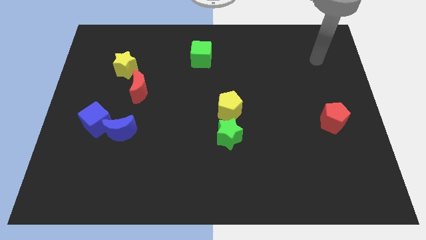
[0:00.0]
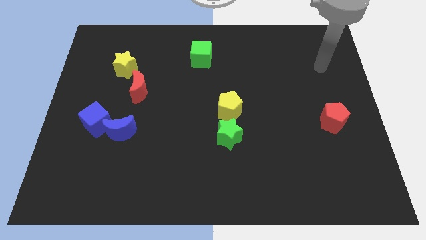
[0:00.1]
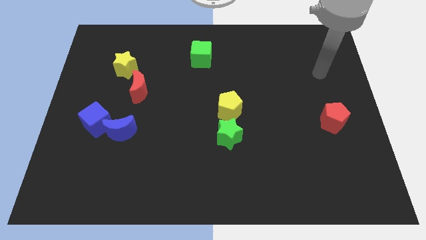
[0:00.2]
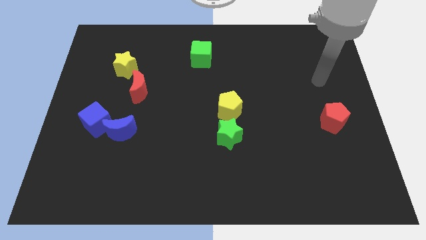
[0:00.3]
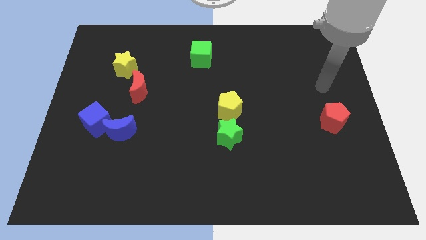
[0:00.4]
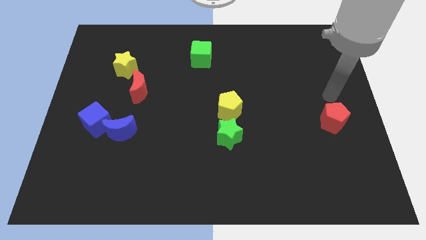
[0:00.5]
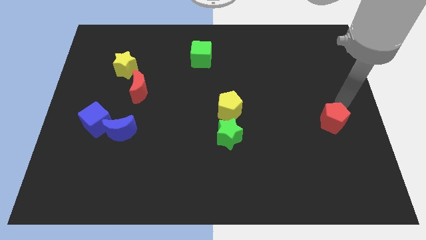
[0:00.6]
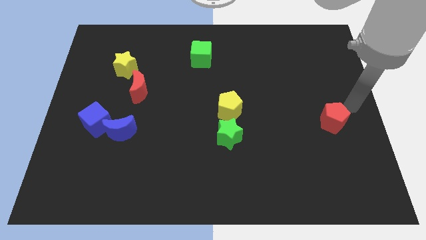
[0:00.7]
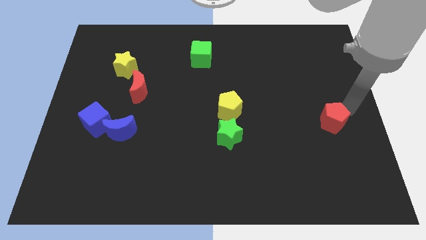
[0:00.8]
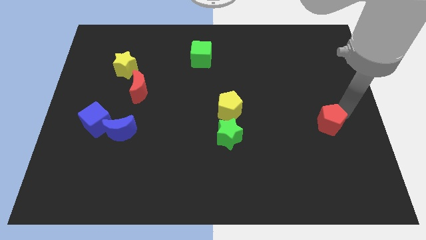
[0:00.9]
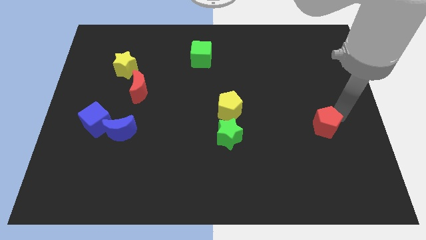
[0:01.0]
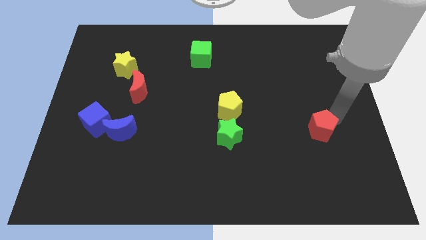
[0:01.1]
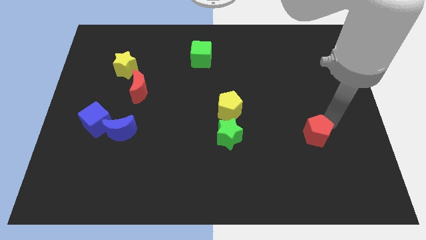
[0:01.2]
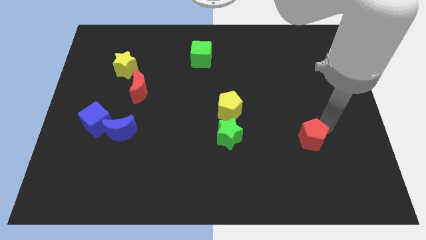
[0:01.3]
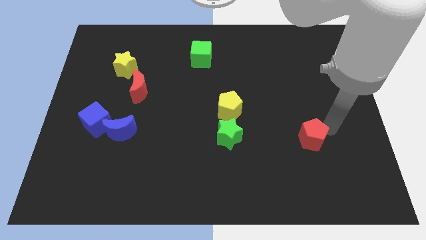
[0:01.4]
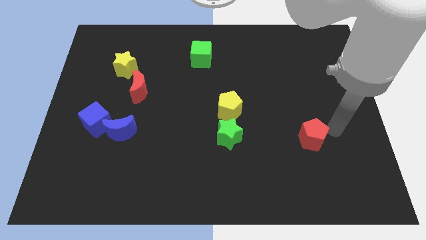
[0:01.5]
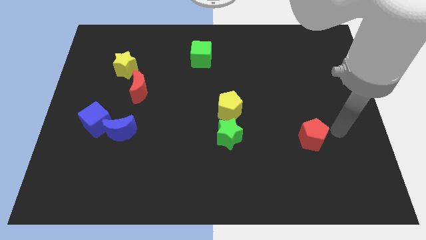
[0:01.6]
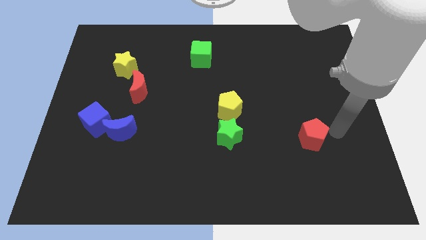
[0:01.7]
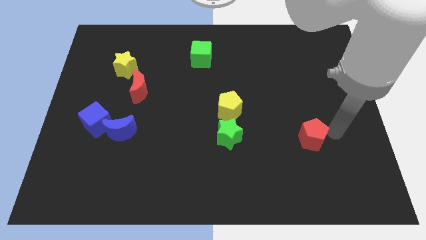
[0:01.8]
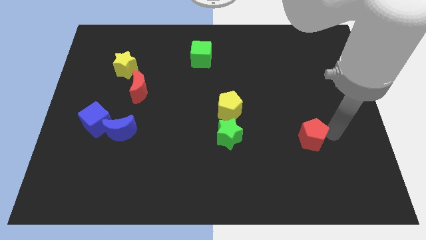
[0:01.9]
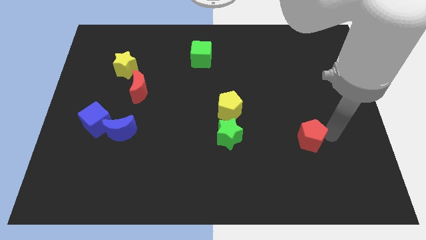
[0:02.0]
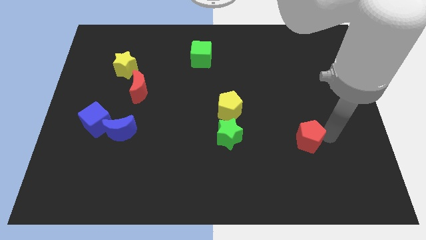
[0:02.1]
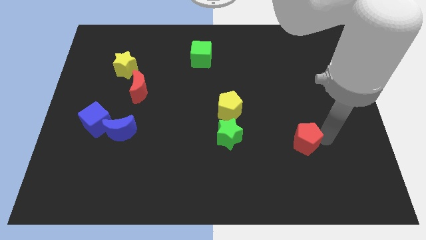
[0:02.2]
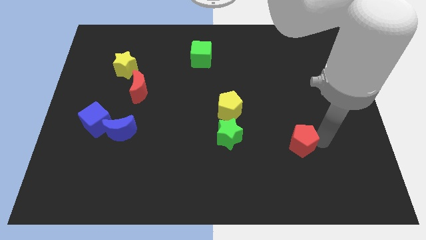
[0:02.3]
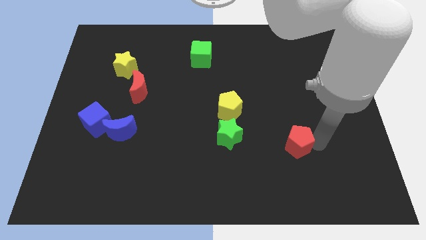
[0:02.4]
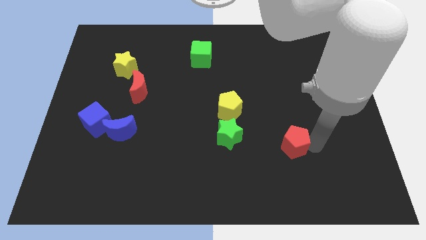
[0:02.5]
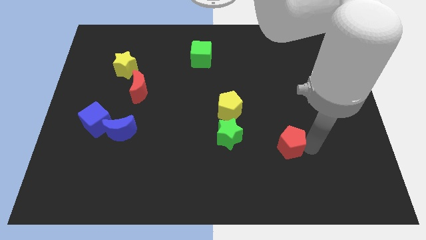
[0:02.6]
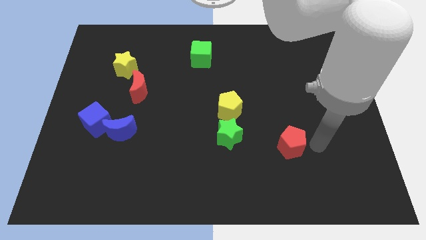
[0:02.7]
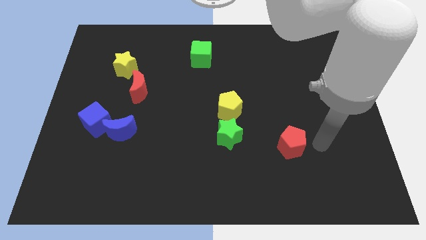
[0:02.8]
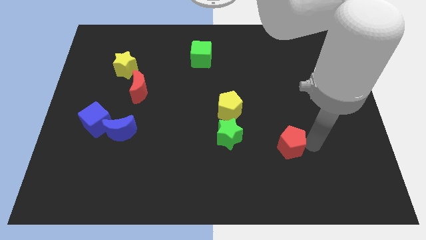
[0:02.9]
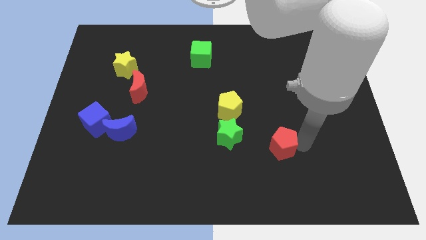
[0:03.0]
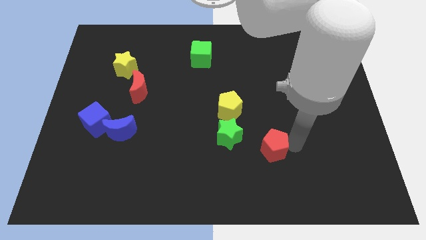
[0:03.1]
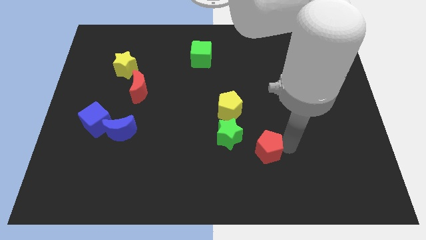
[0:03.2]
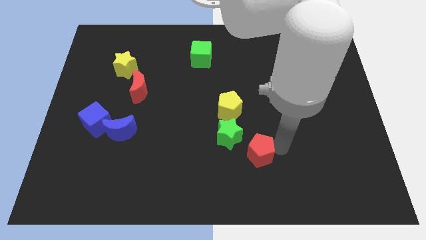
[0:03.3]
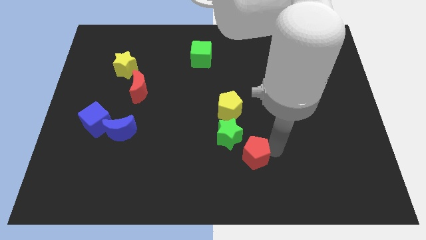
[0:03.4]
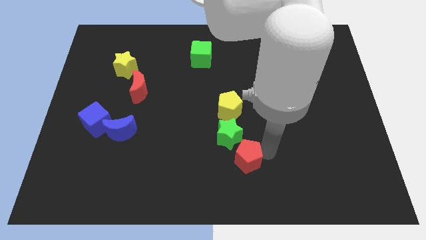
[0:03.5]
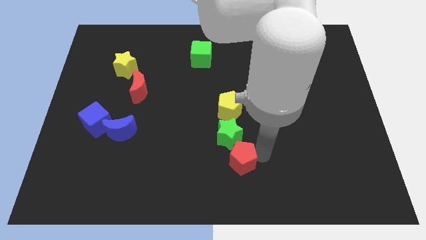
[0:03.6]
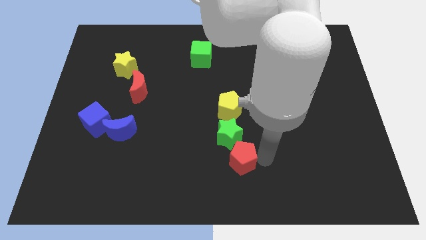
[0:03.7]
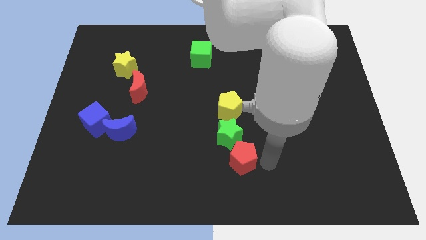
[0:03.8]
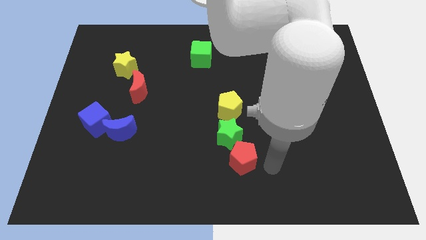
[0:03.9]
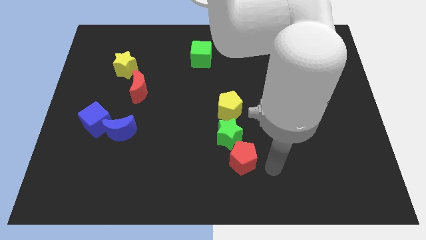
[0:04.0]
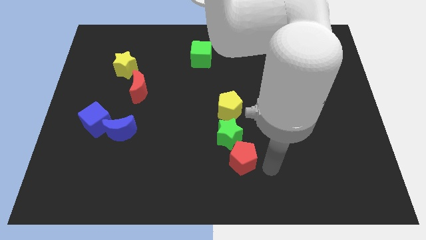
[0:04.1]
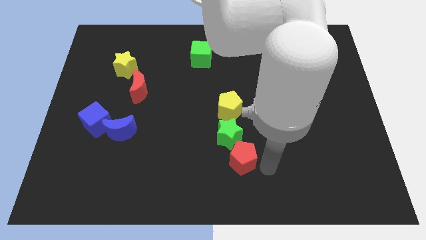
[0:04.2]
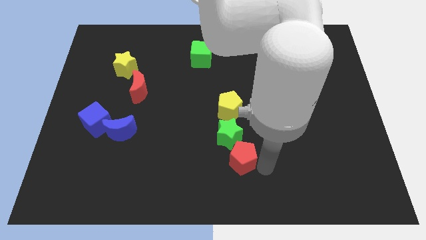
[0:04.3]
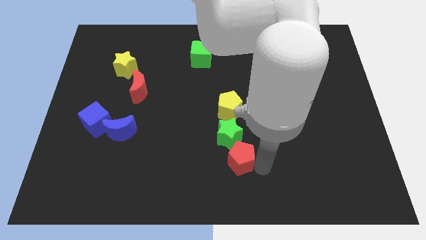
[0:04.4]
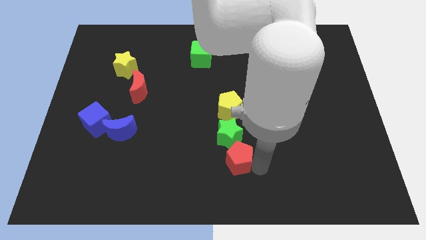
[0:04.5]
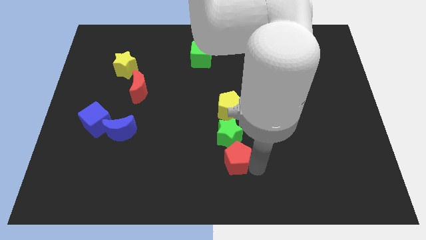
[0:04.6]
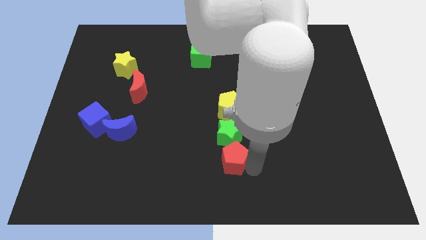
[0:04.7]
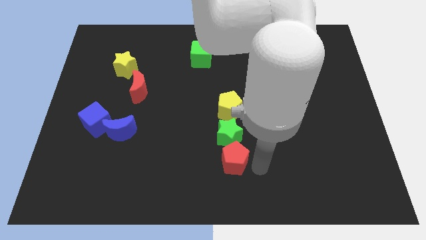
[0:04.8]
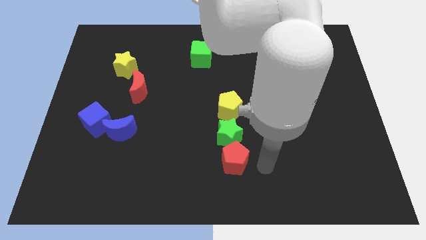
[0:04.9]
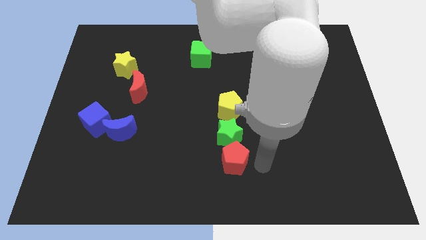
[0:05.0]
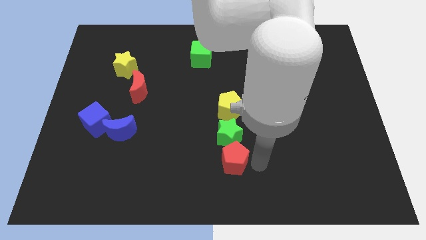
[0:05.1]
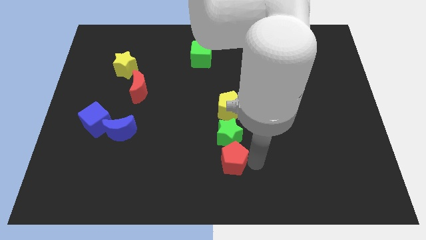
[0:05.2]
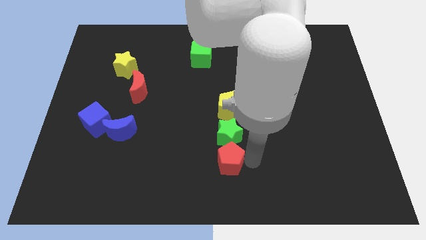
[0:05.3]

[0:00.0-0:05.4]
put the red pentagon to the bottom left of the green star

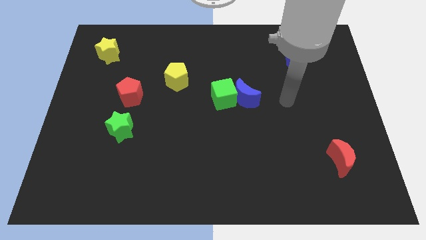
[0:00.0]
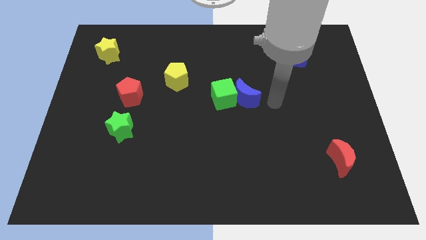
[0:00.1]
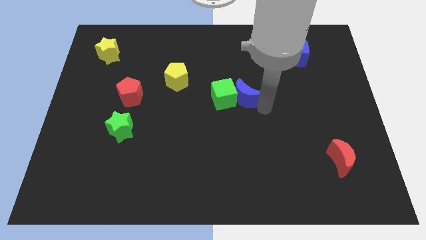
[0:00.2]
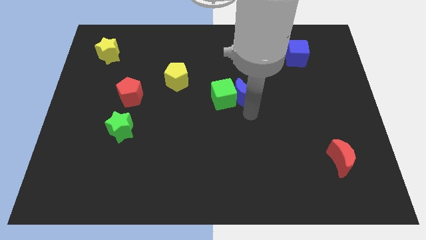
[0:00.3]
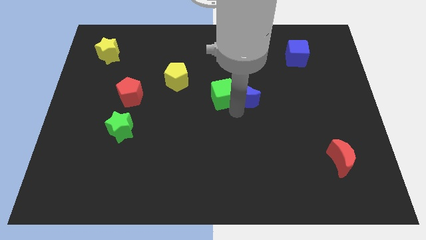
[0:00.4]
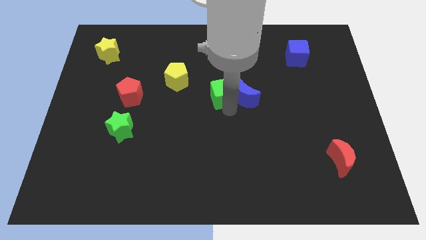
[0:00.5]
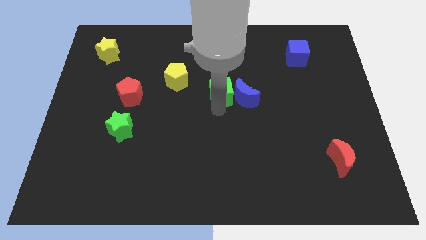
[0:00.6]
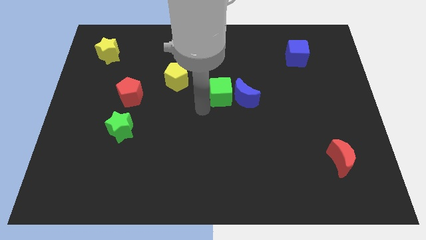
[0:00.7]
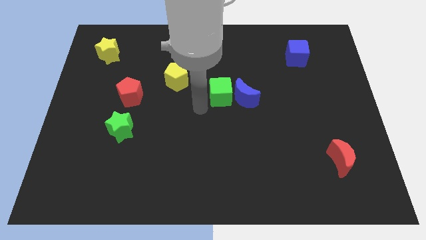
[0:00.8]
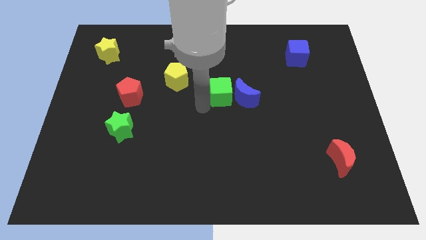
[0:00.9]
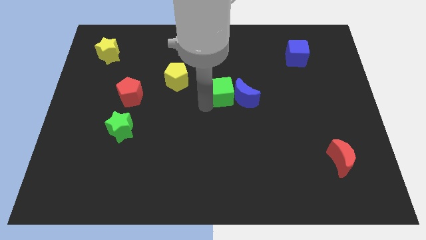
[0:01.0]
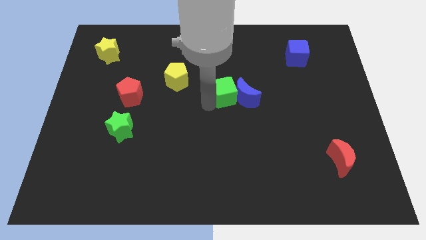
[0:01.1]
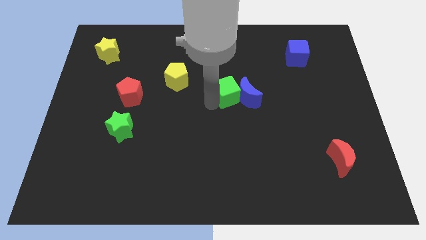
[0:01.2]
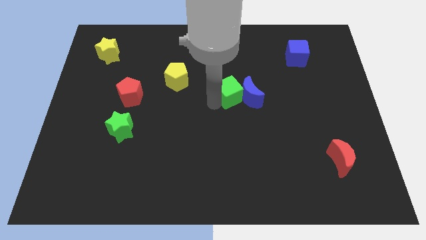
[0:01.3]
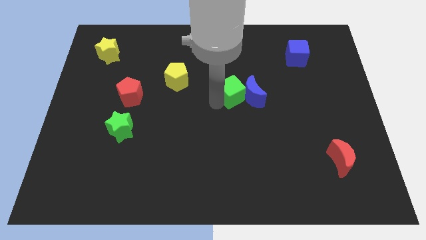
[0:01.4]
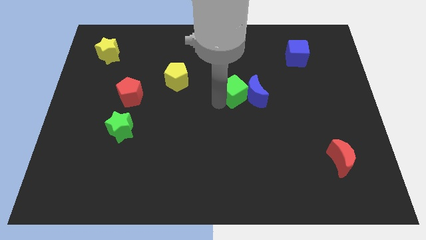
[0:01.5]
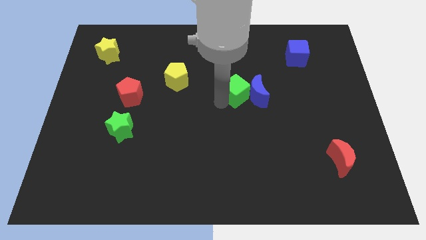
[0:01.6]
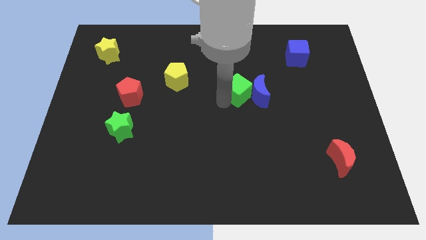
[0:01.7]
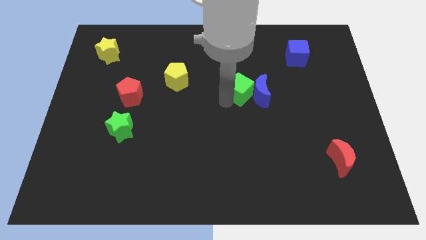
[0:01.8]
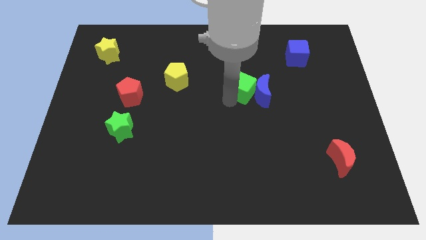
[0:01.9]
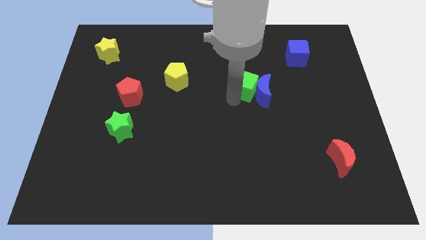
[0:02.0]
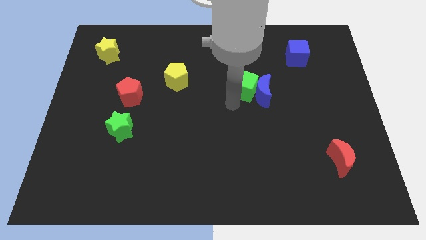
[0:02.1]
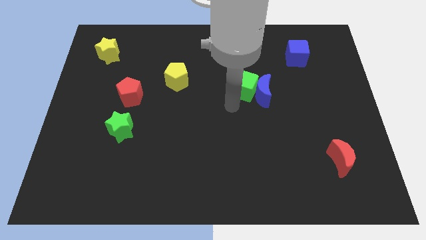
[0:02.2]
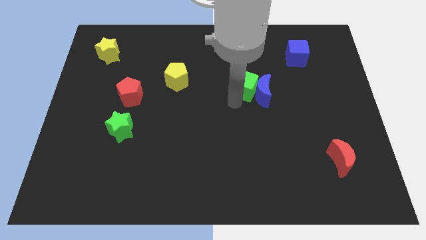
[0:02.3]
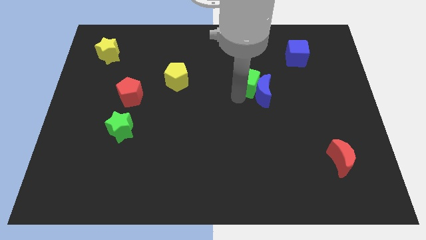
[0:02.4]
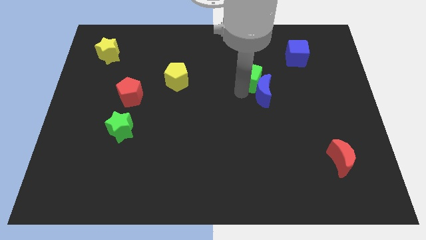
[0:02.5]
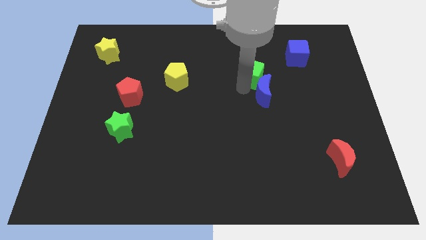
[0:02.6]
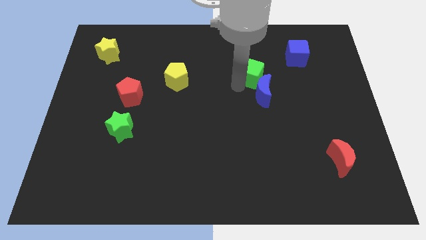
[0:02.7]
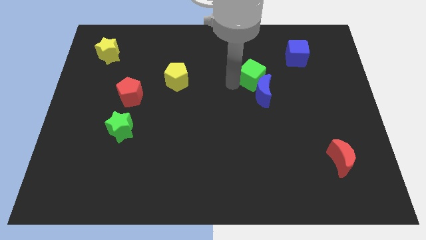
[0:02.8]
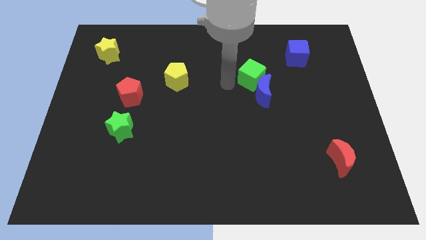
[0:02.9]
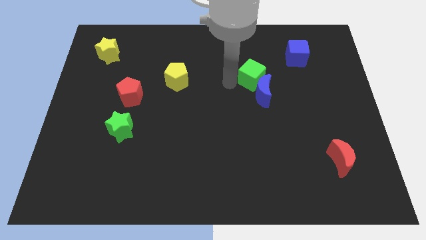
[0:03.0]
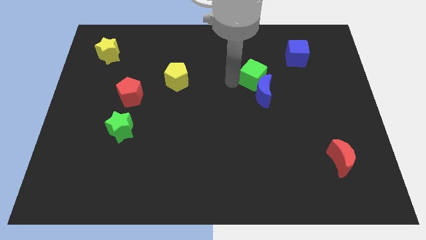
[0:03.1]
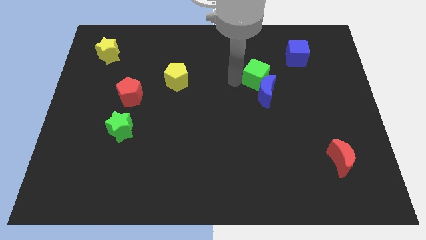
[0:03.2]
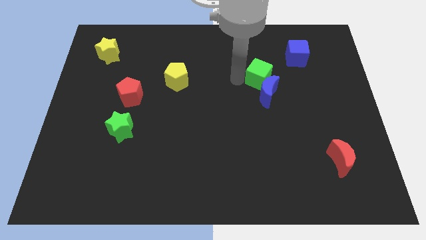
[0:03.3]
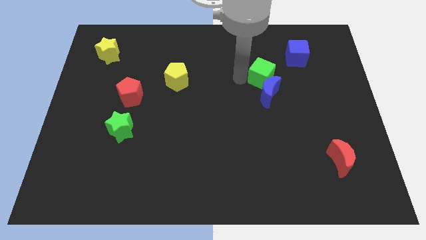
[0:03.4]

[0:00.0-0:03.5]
push the green cube to the bottom left of the blue cube
